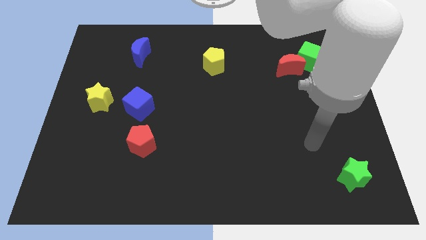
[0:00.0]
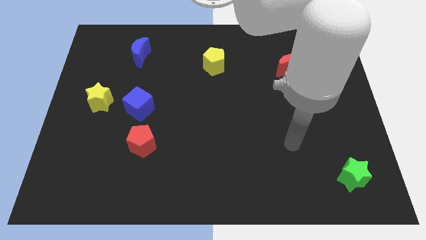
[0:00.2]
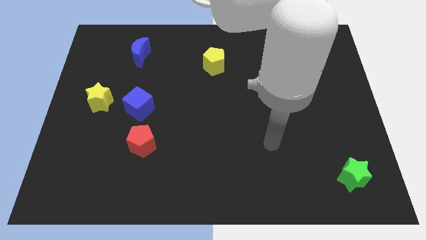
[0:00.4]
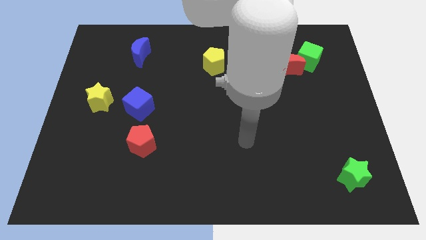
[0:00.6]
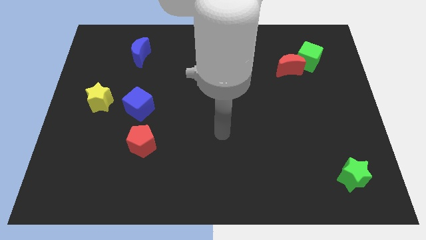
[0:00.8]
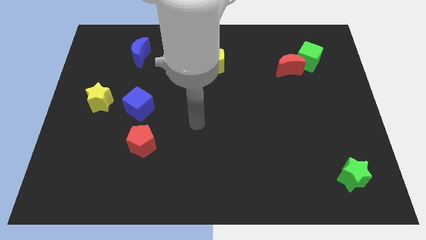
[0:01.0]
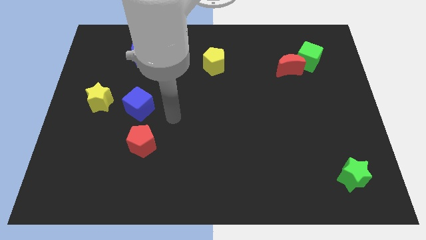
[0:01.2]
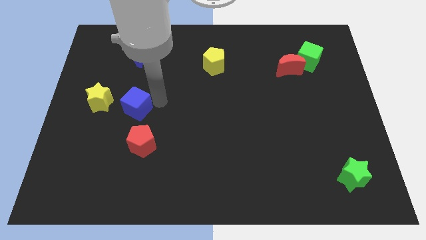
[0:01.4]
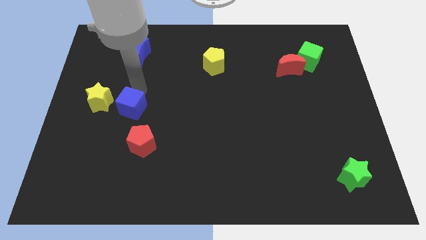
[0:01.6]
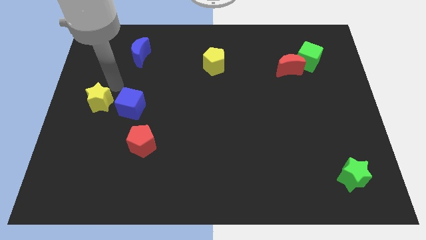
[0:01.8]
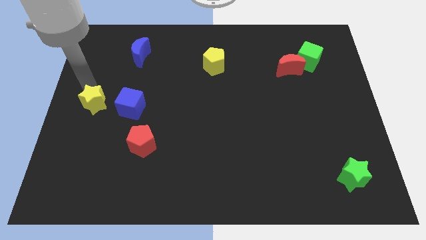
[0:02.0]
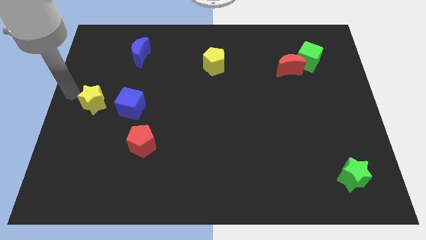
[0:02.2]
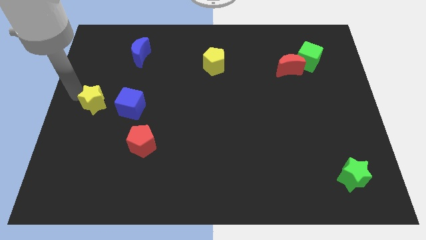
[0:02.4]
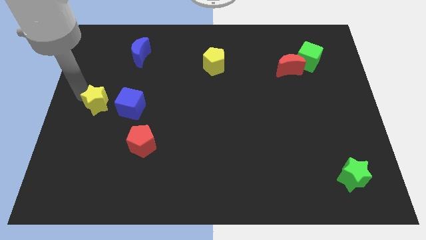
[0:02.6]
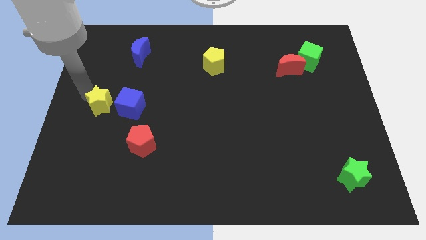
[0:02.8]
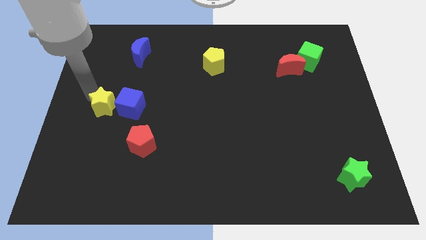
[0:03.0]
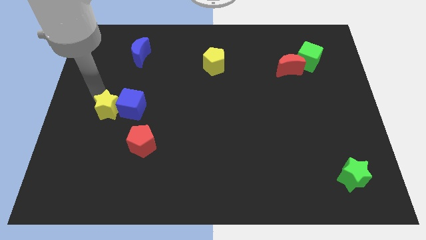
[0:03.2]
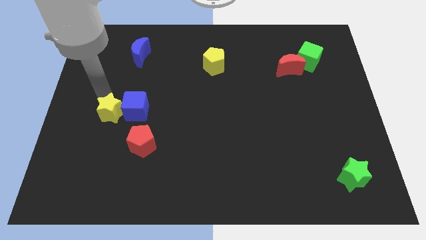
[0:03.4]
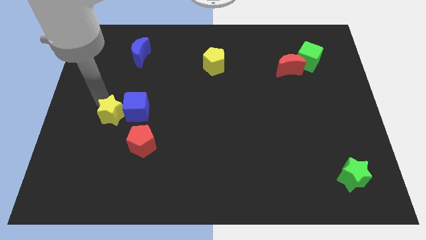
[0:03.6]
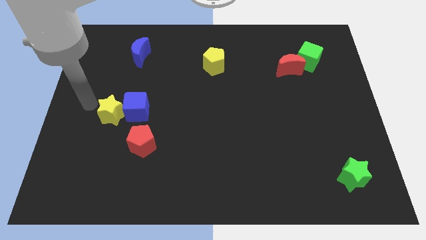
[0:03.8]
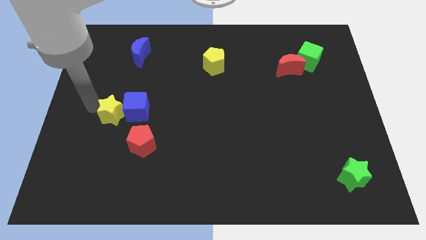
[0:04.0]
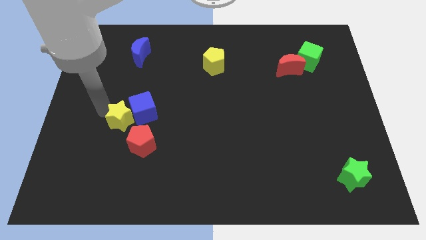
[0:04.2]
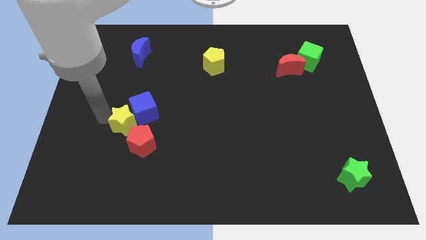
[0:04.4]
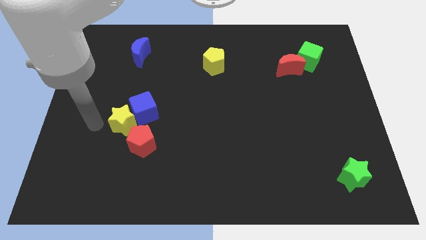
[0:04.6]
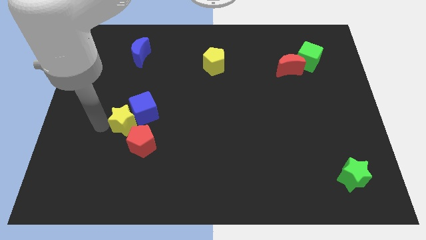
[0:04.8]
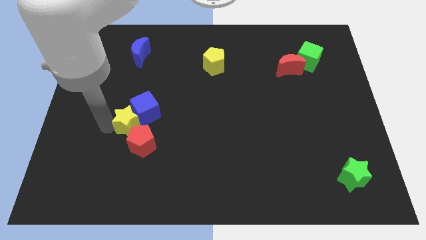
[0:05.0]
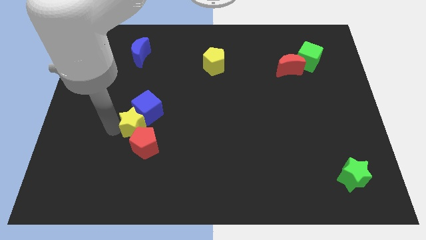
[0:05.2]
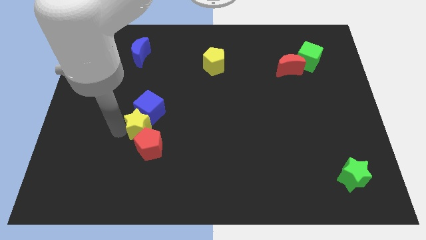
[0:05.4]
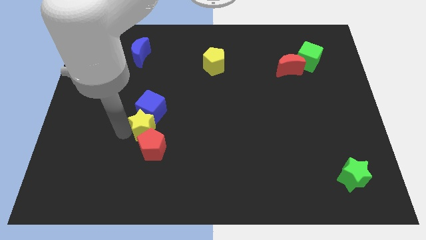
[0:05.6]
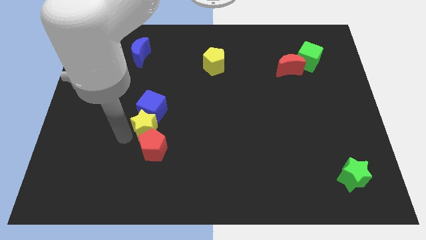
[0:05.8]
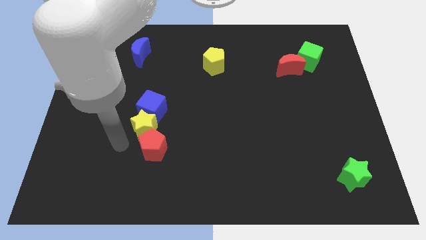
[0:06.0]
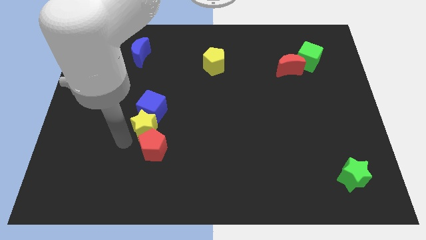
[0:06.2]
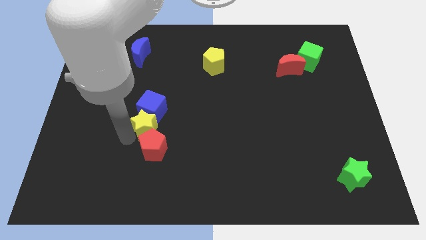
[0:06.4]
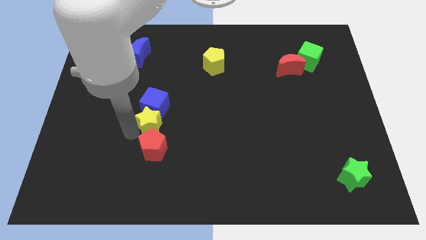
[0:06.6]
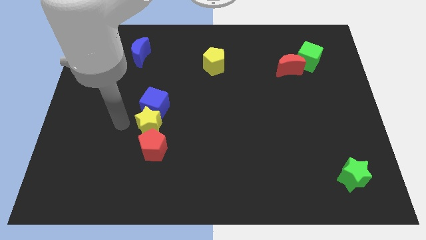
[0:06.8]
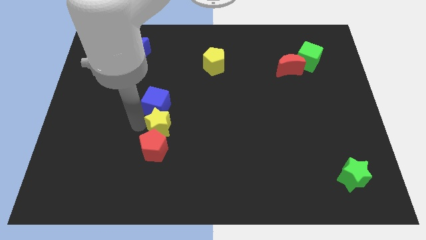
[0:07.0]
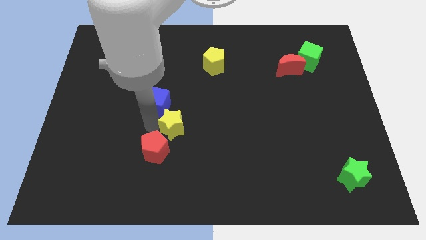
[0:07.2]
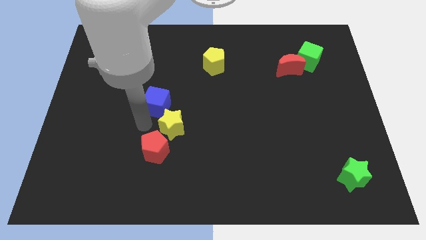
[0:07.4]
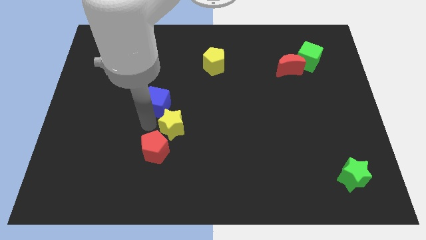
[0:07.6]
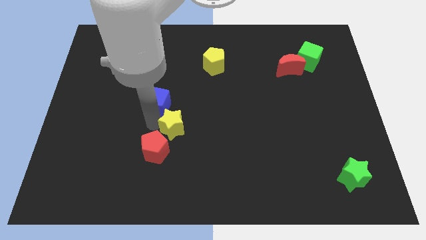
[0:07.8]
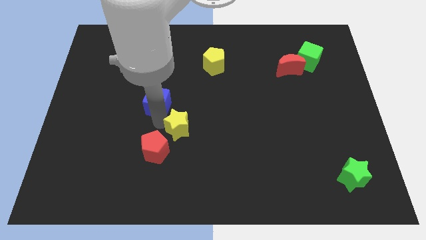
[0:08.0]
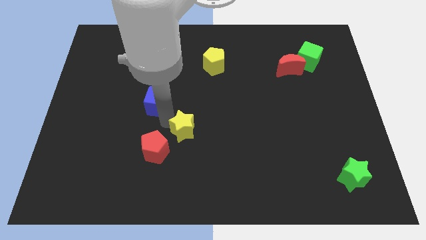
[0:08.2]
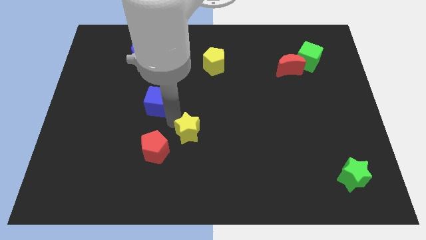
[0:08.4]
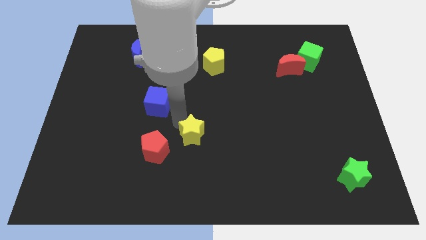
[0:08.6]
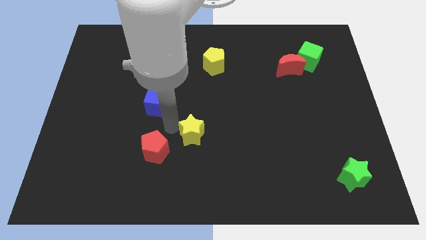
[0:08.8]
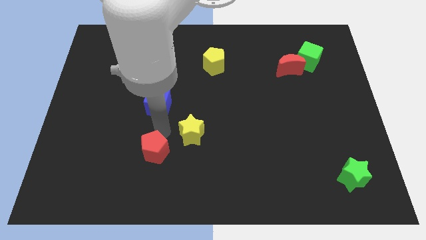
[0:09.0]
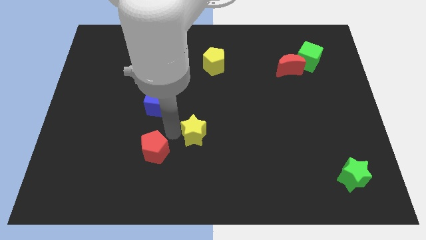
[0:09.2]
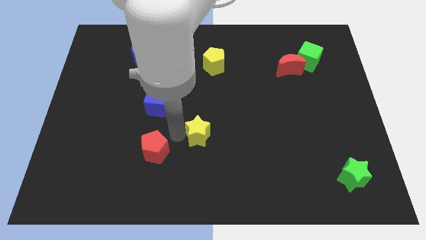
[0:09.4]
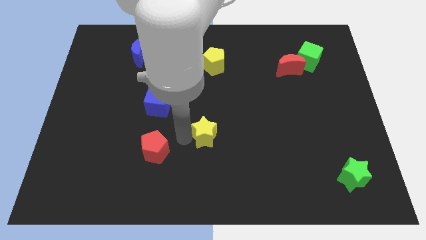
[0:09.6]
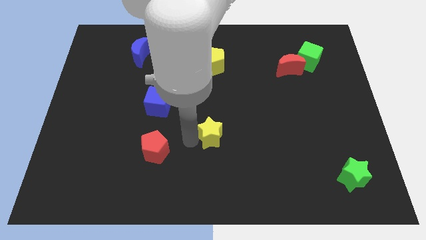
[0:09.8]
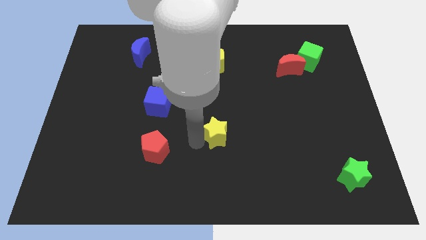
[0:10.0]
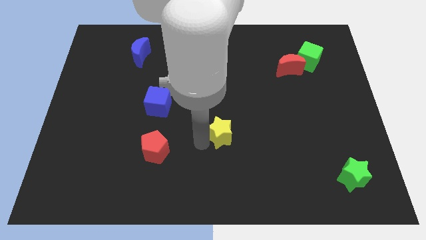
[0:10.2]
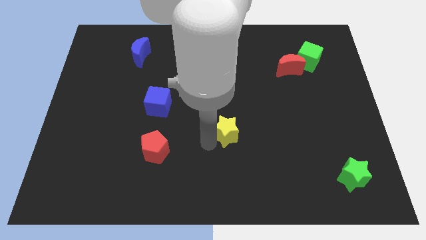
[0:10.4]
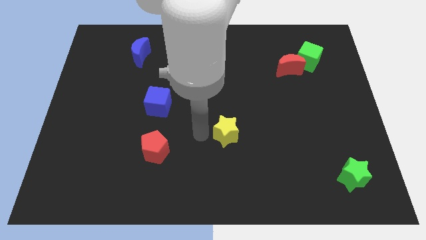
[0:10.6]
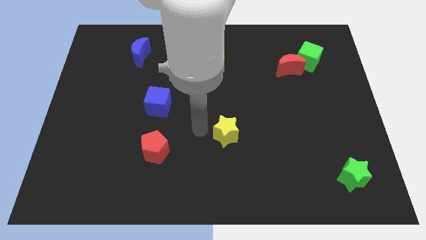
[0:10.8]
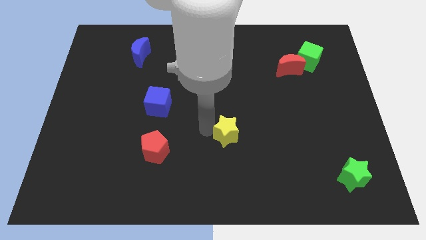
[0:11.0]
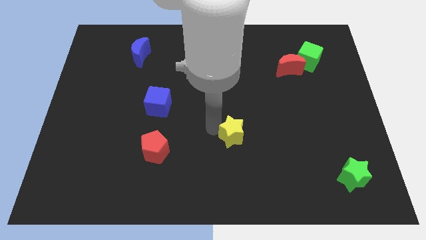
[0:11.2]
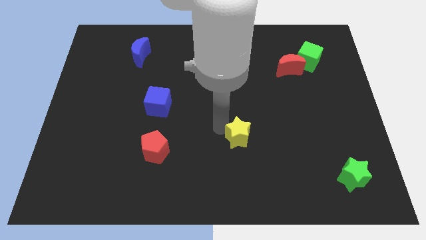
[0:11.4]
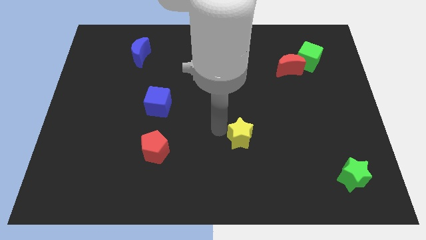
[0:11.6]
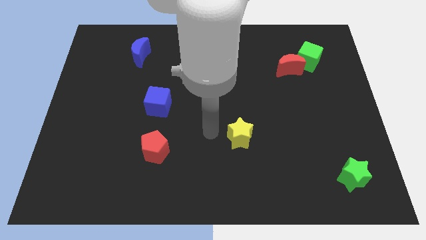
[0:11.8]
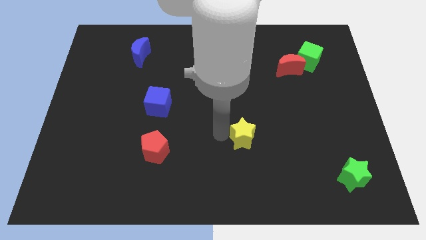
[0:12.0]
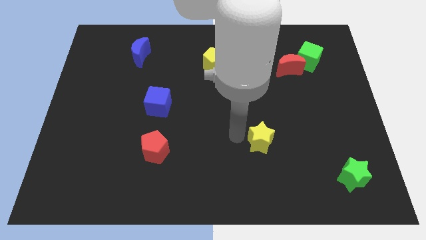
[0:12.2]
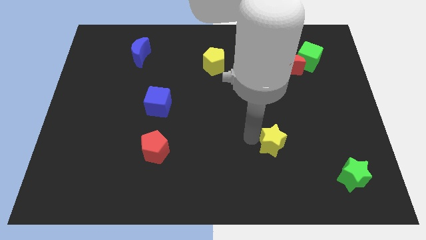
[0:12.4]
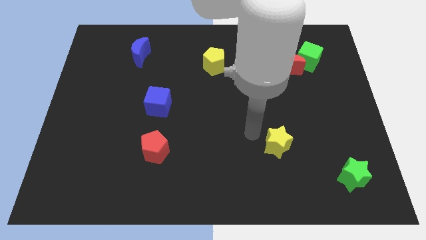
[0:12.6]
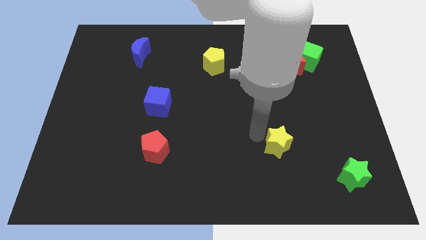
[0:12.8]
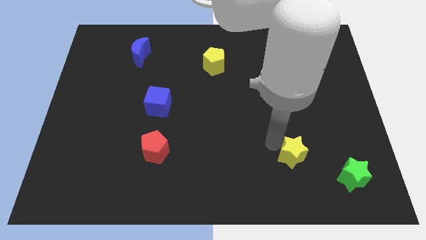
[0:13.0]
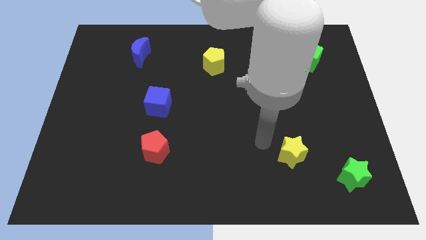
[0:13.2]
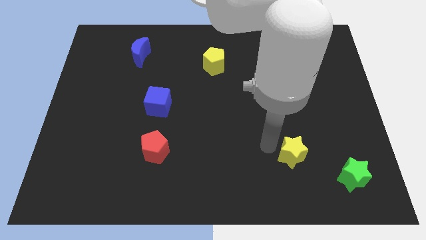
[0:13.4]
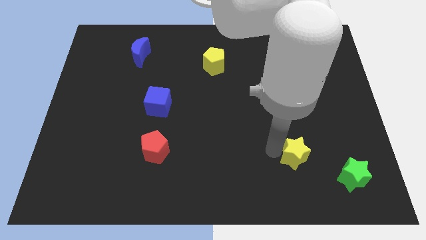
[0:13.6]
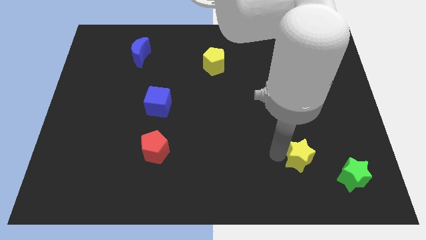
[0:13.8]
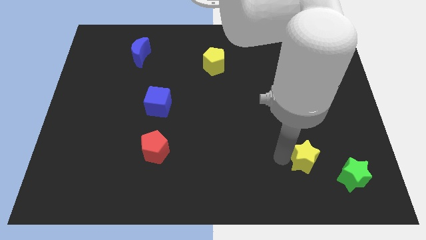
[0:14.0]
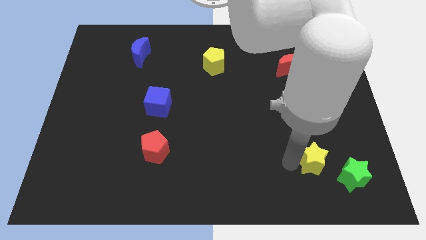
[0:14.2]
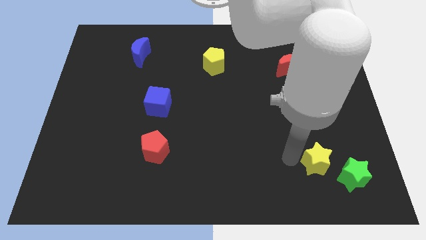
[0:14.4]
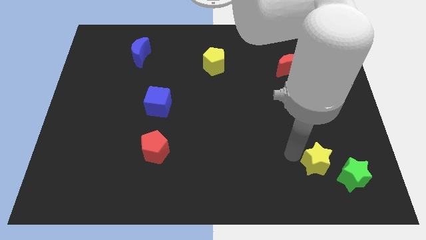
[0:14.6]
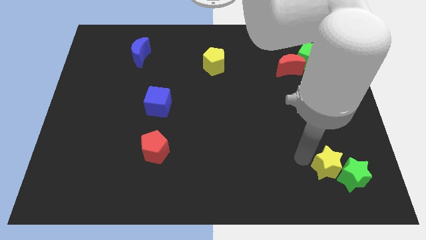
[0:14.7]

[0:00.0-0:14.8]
slide the yellow star next to the green star
